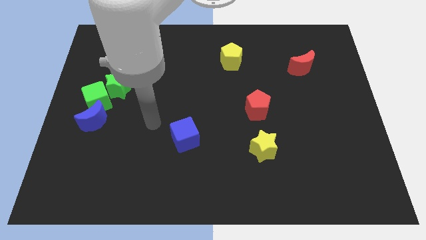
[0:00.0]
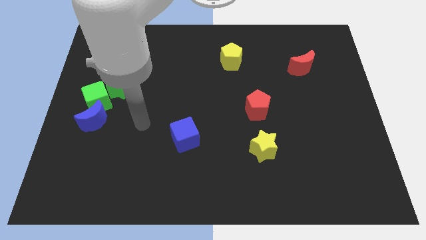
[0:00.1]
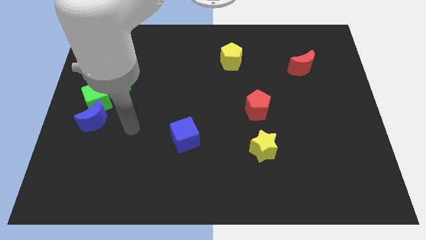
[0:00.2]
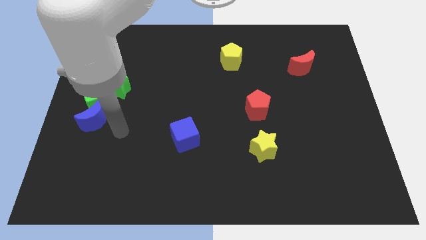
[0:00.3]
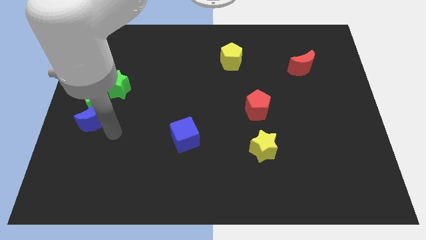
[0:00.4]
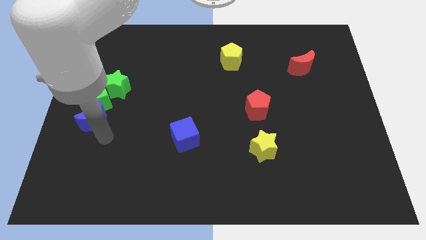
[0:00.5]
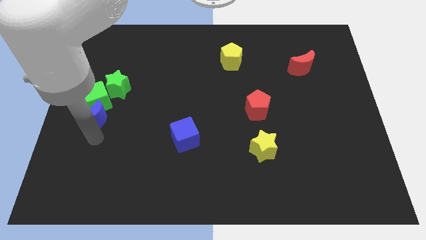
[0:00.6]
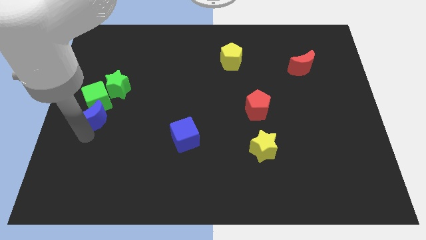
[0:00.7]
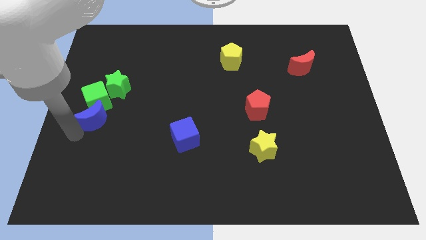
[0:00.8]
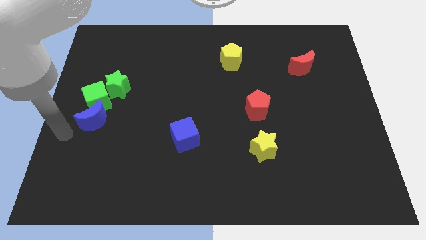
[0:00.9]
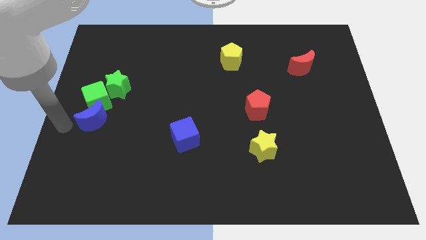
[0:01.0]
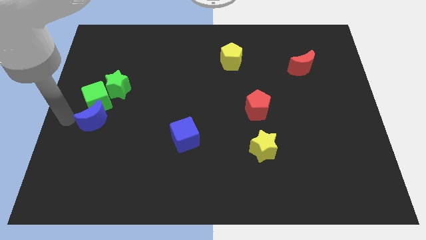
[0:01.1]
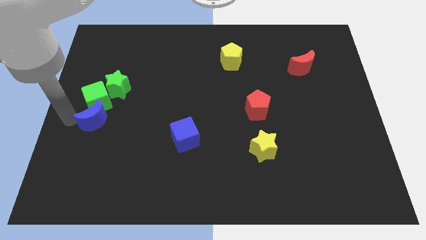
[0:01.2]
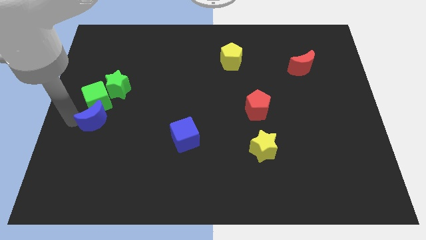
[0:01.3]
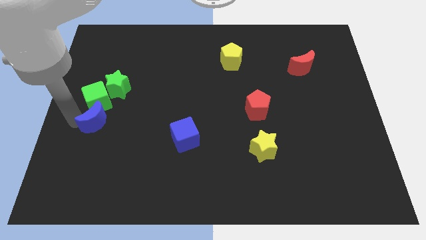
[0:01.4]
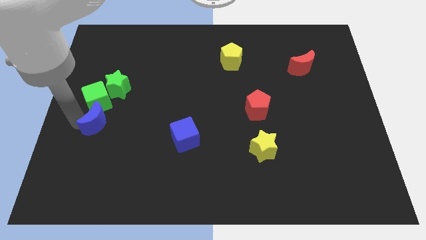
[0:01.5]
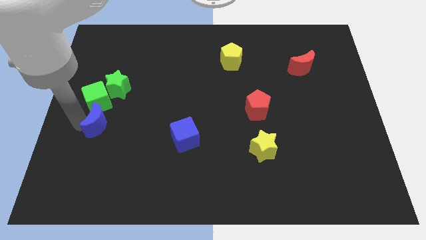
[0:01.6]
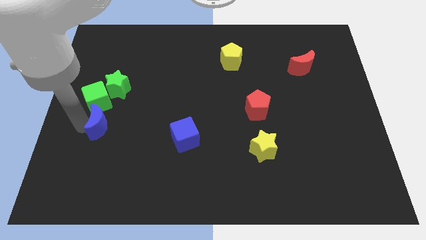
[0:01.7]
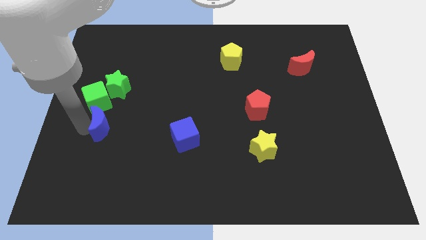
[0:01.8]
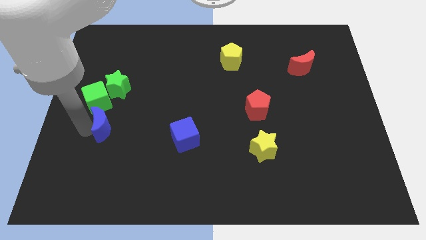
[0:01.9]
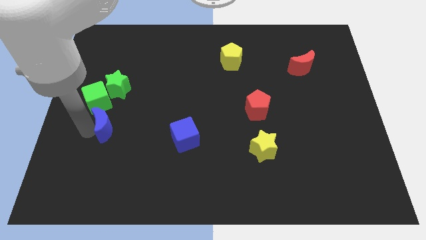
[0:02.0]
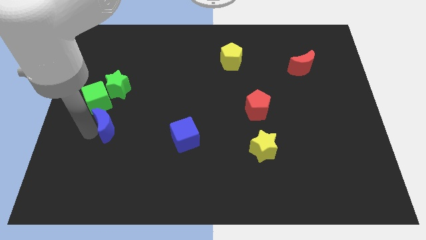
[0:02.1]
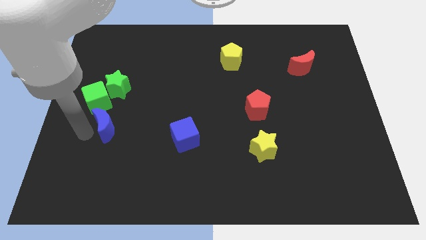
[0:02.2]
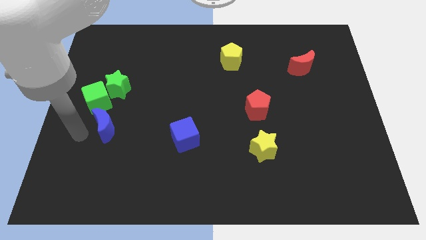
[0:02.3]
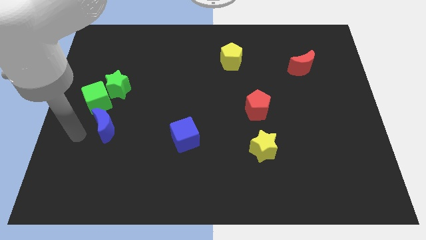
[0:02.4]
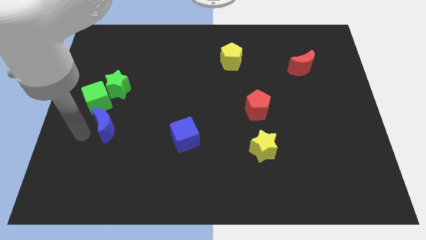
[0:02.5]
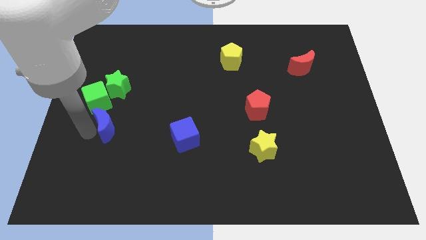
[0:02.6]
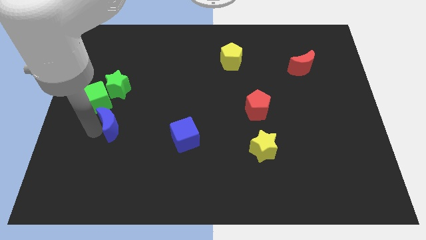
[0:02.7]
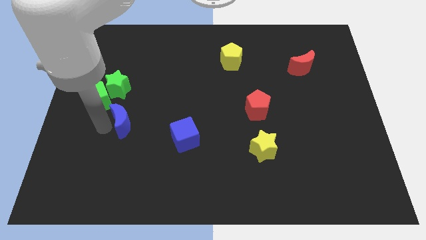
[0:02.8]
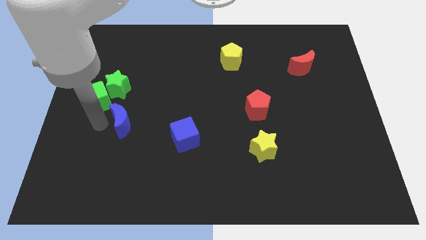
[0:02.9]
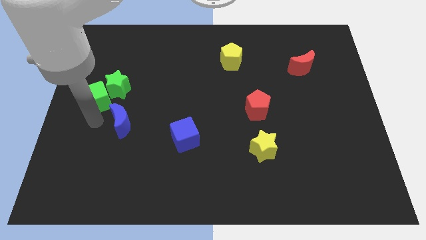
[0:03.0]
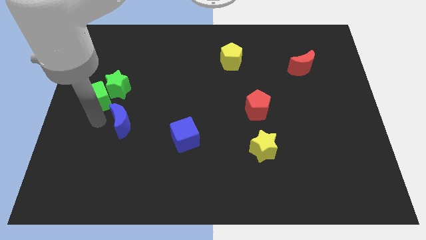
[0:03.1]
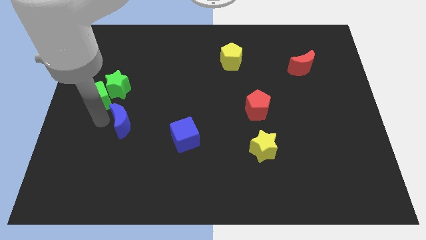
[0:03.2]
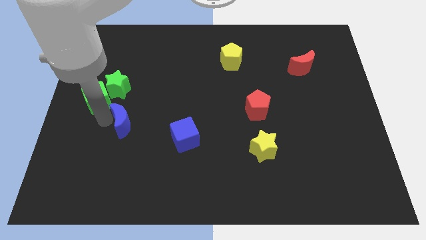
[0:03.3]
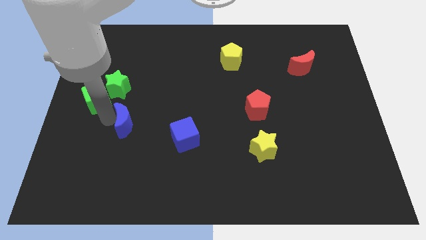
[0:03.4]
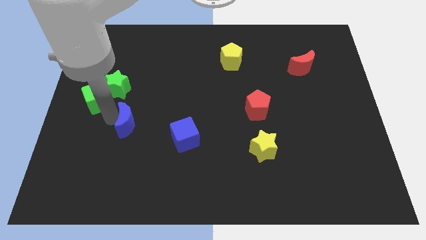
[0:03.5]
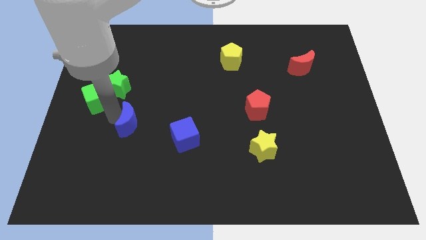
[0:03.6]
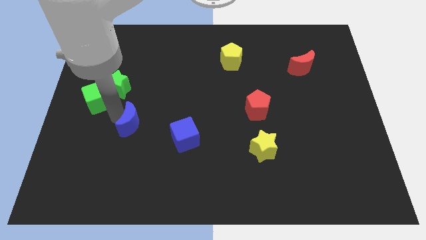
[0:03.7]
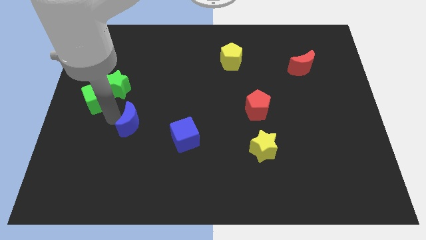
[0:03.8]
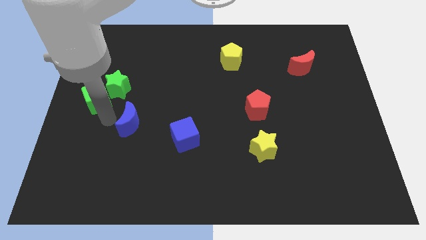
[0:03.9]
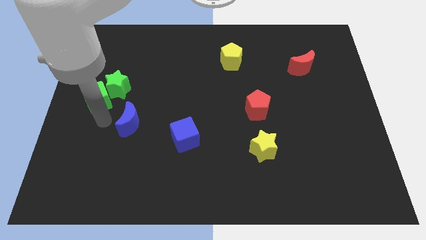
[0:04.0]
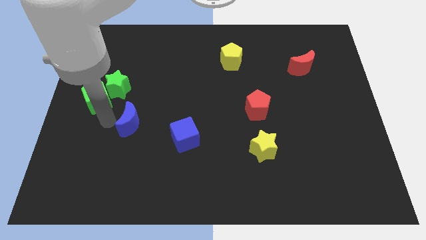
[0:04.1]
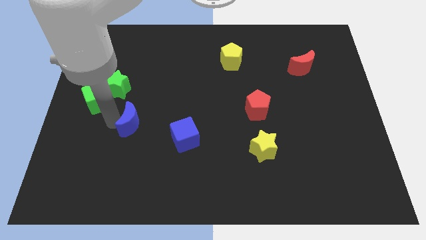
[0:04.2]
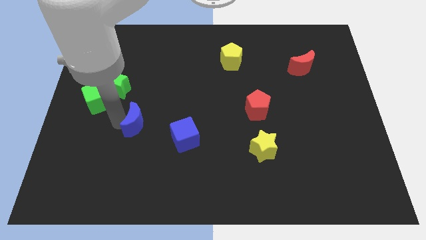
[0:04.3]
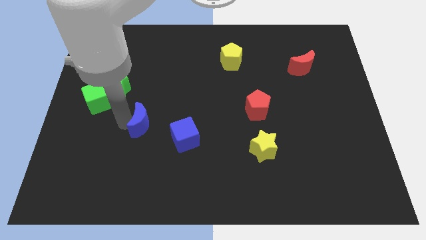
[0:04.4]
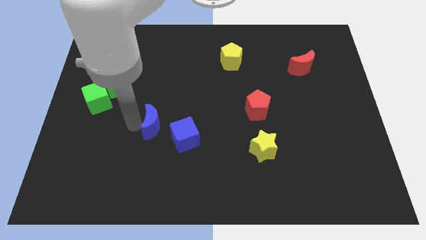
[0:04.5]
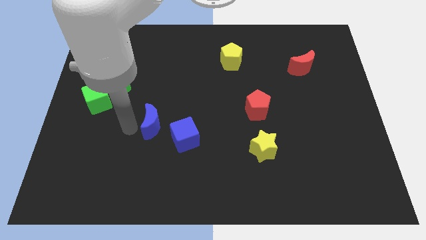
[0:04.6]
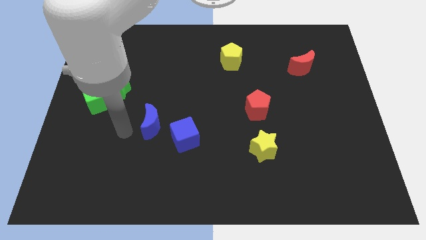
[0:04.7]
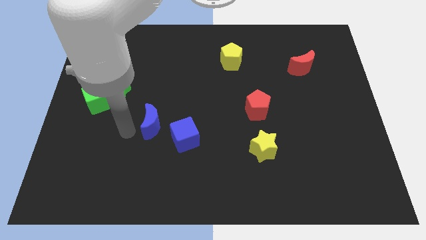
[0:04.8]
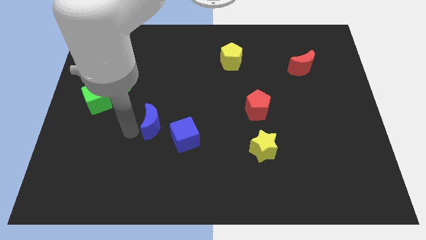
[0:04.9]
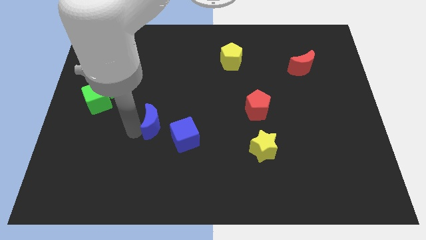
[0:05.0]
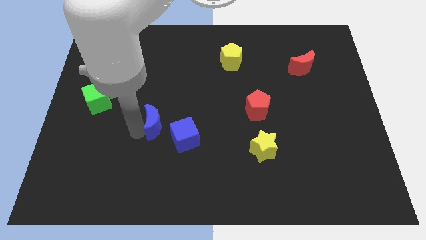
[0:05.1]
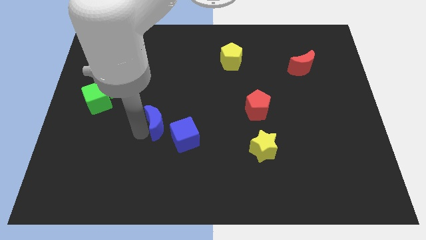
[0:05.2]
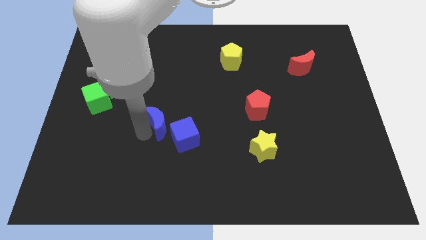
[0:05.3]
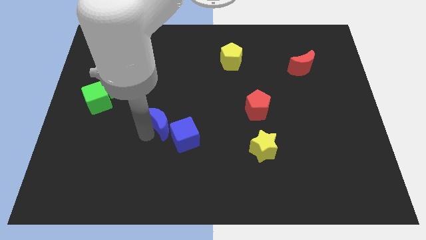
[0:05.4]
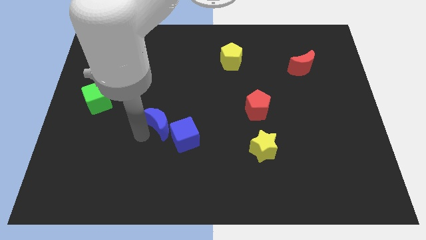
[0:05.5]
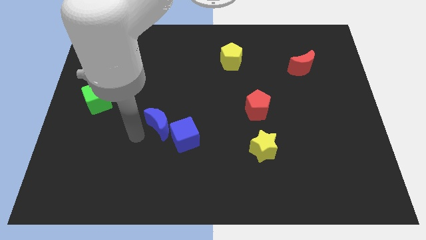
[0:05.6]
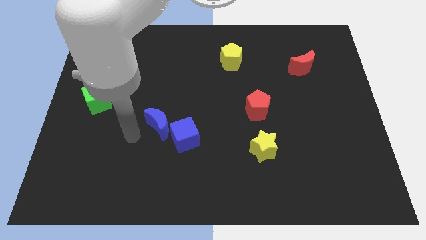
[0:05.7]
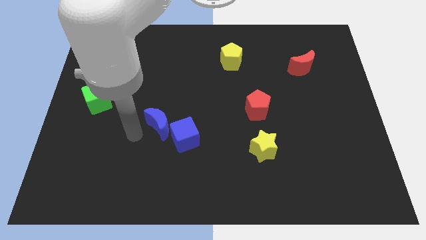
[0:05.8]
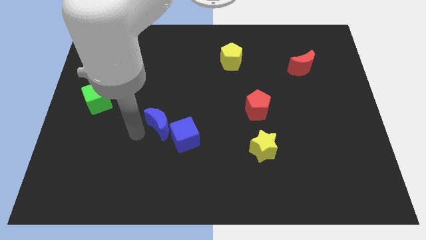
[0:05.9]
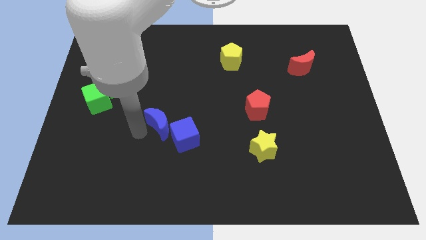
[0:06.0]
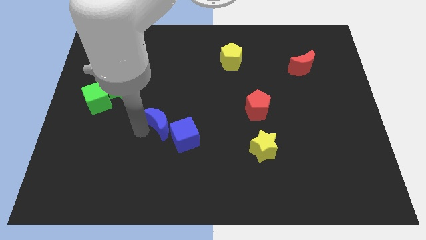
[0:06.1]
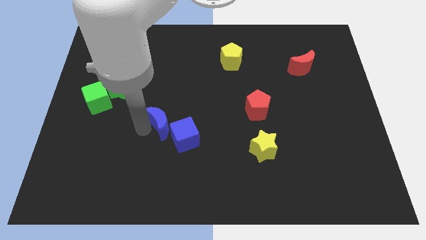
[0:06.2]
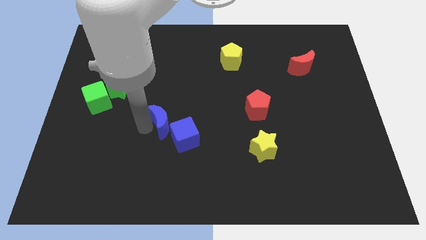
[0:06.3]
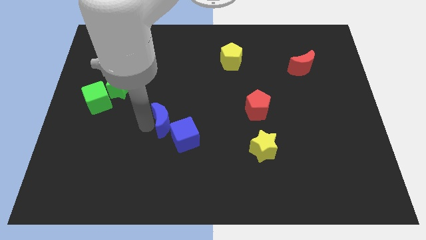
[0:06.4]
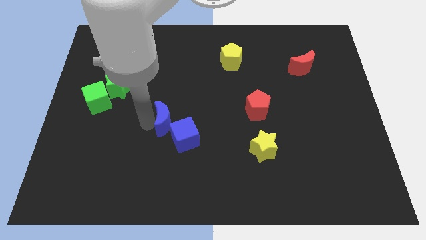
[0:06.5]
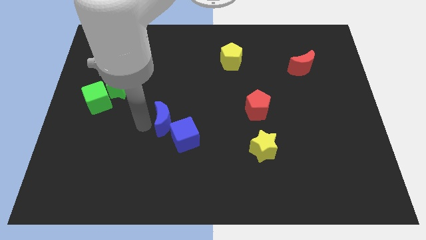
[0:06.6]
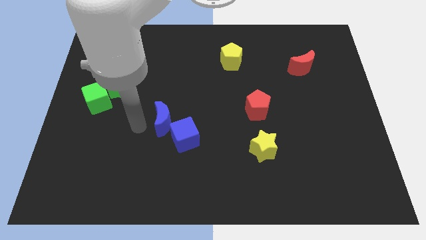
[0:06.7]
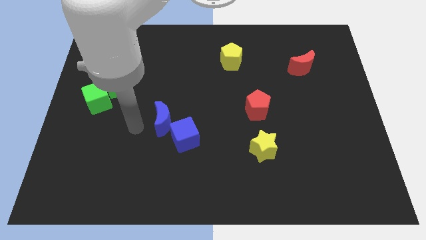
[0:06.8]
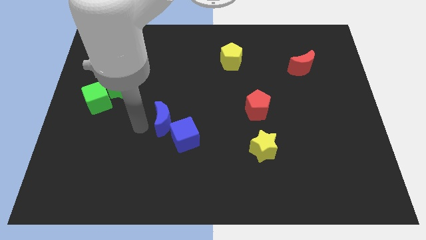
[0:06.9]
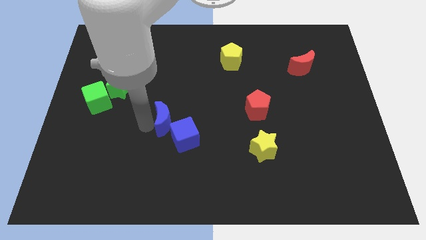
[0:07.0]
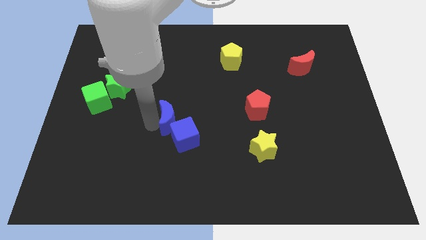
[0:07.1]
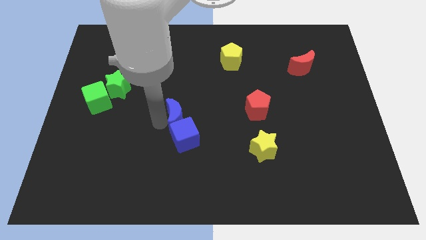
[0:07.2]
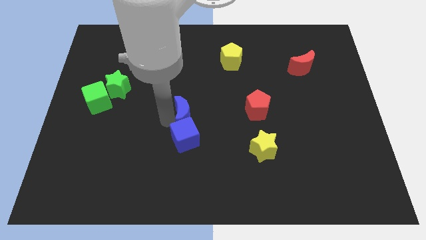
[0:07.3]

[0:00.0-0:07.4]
push the blue moon right

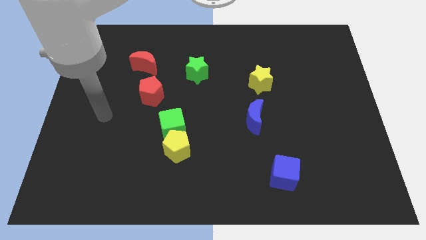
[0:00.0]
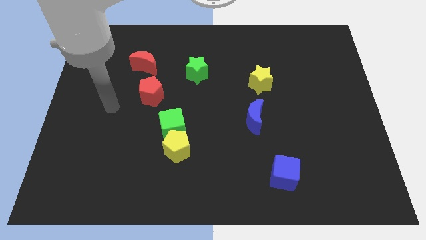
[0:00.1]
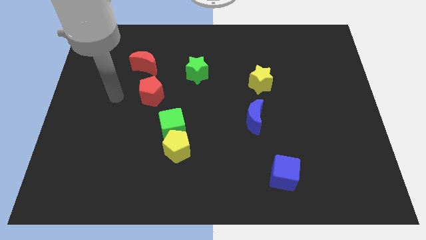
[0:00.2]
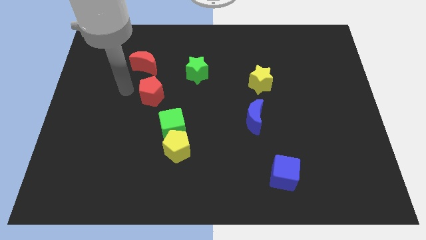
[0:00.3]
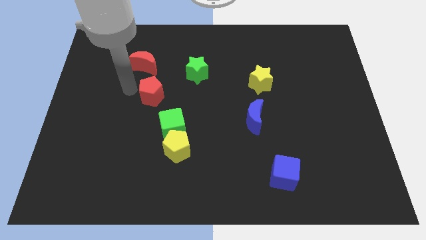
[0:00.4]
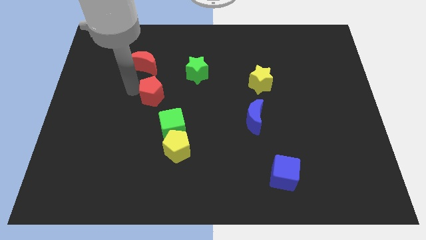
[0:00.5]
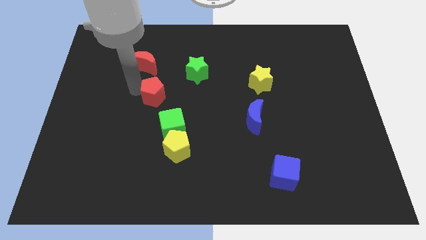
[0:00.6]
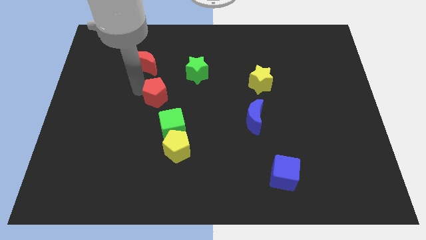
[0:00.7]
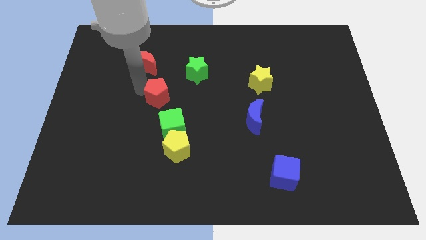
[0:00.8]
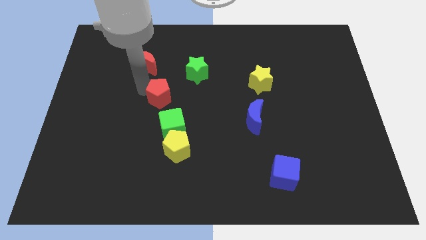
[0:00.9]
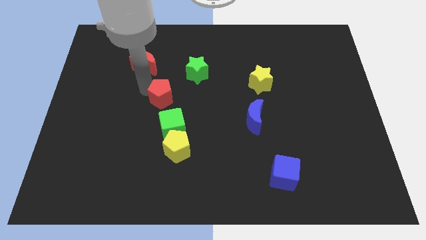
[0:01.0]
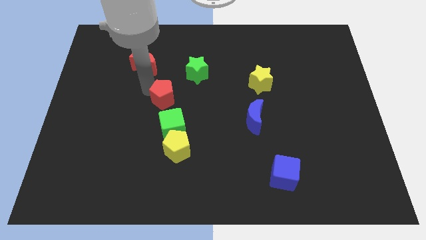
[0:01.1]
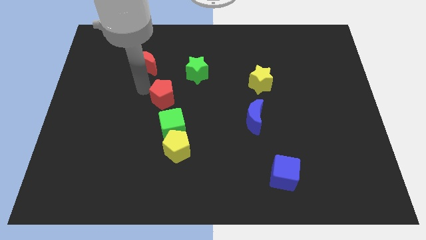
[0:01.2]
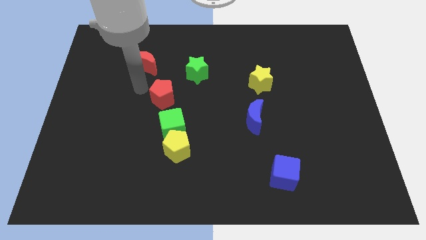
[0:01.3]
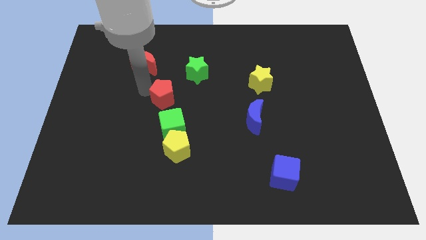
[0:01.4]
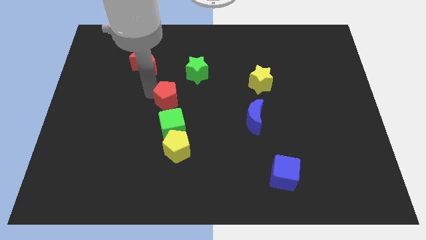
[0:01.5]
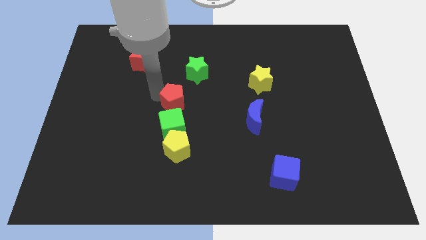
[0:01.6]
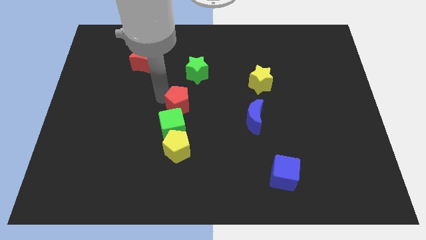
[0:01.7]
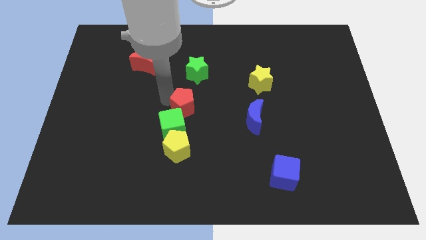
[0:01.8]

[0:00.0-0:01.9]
push the red pentagon slightly downwards and right
